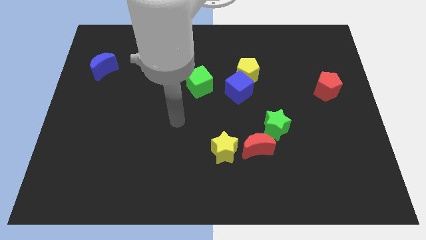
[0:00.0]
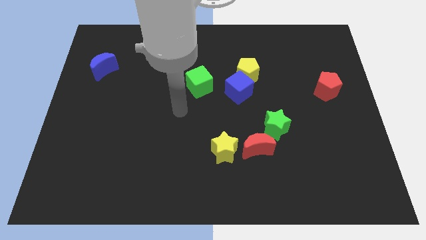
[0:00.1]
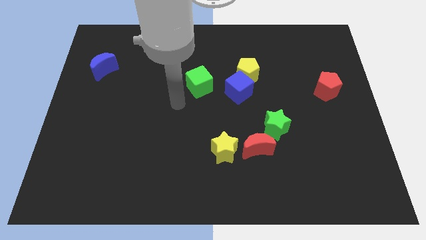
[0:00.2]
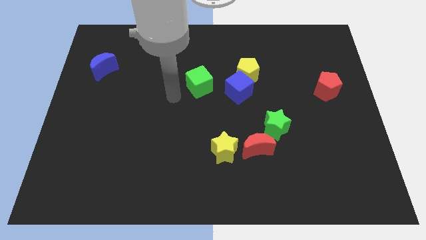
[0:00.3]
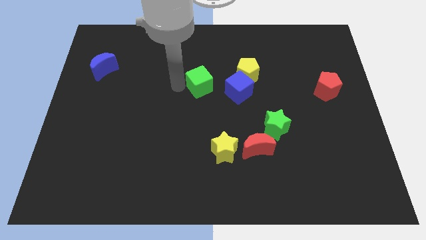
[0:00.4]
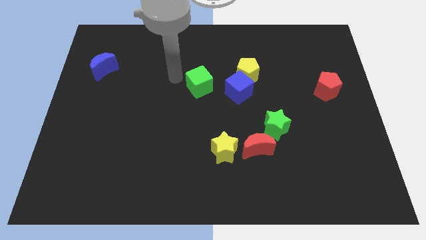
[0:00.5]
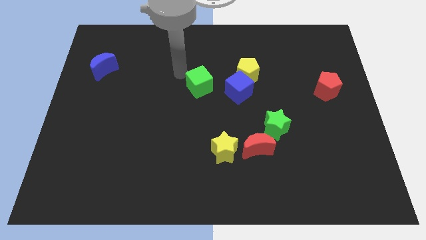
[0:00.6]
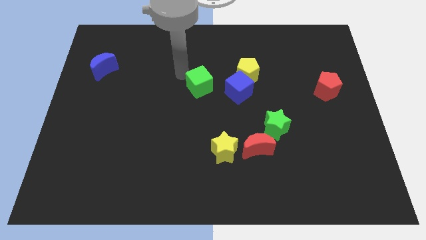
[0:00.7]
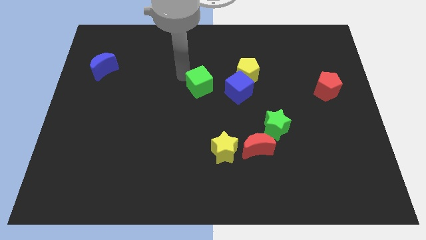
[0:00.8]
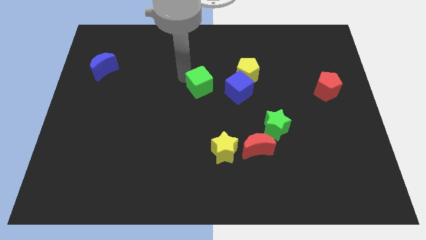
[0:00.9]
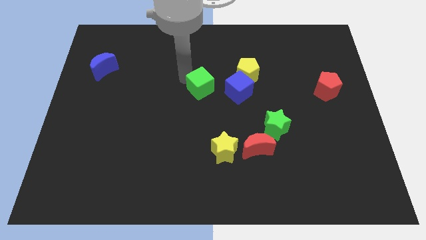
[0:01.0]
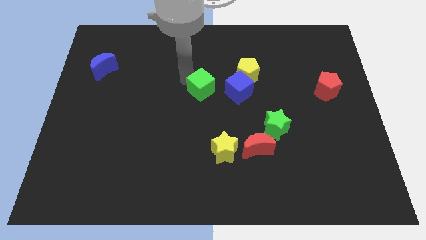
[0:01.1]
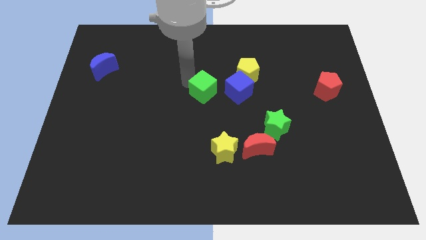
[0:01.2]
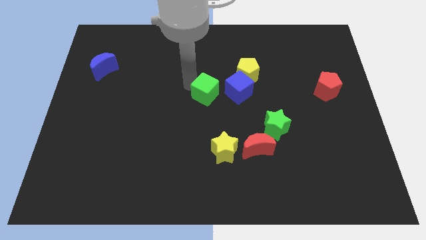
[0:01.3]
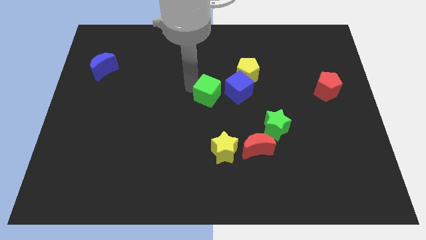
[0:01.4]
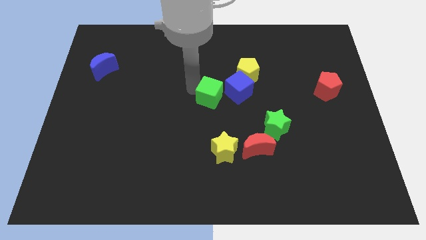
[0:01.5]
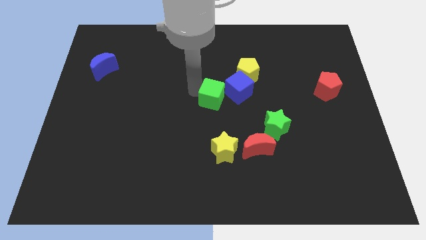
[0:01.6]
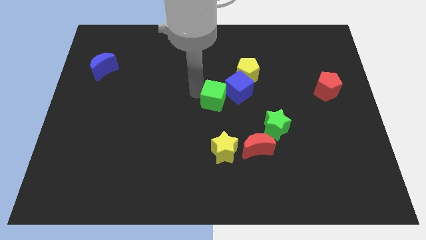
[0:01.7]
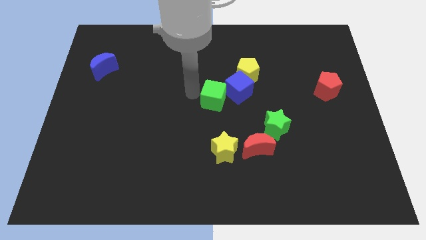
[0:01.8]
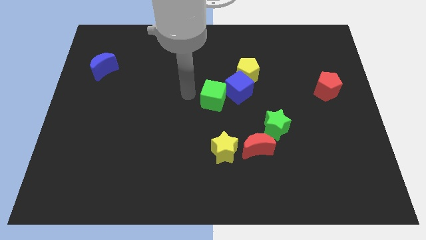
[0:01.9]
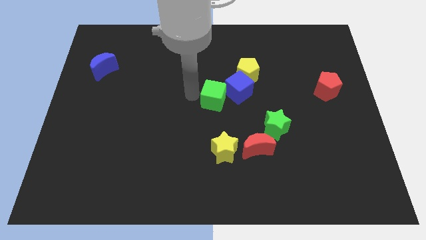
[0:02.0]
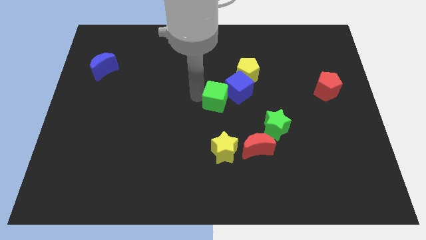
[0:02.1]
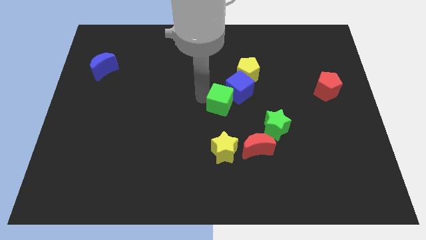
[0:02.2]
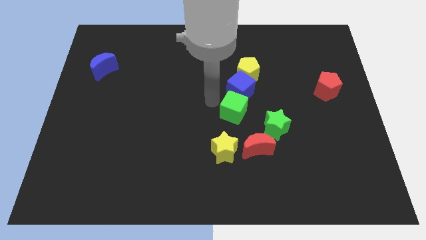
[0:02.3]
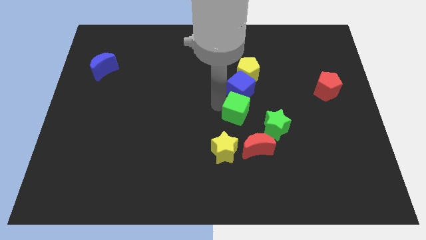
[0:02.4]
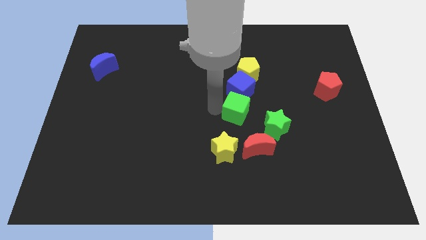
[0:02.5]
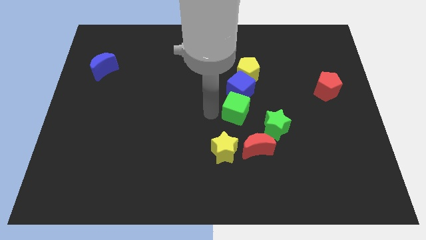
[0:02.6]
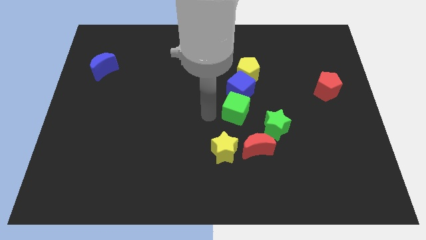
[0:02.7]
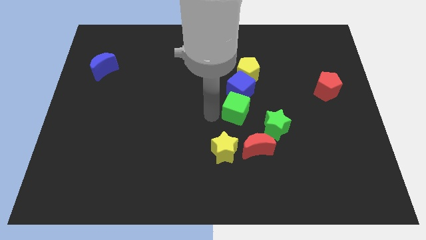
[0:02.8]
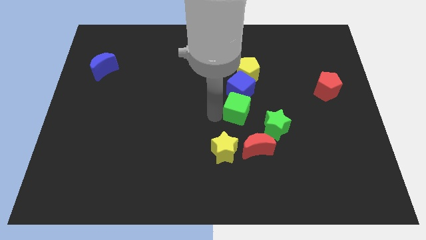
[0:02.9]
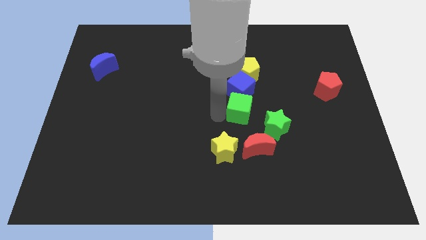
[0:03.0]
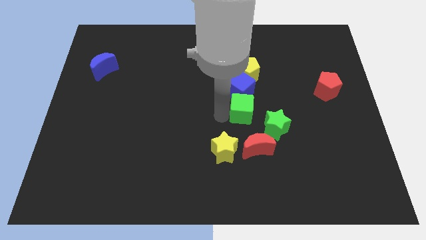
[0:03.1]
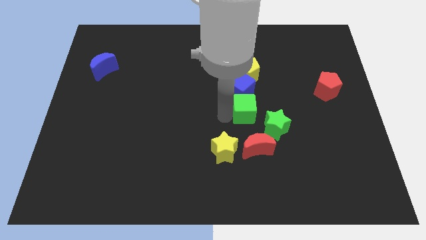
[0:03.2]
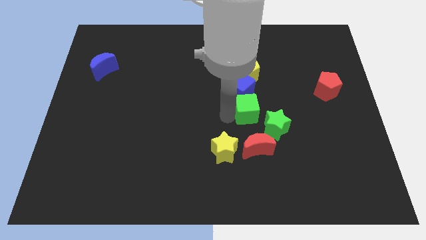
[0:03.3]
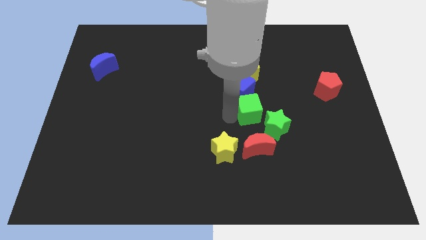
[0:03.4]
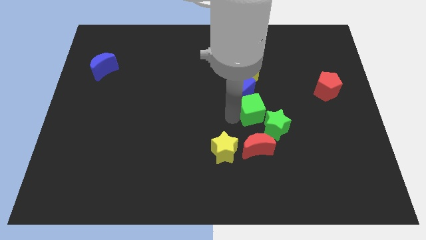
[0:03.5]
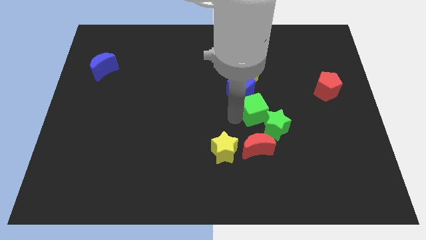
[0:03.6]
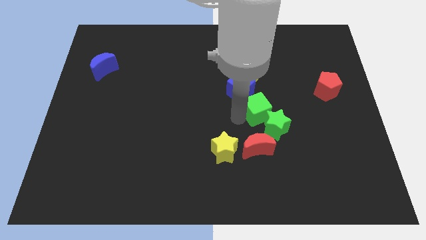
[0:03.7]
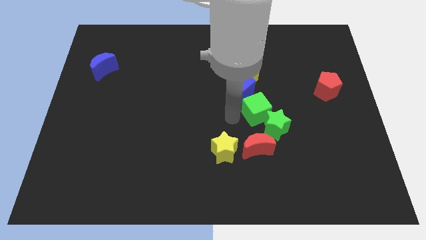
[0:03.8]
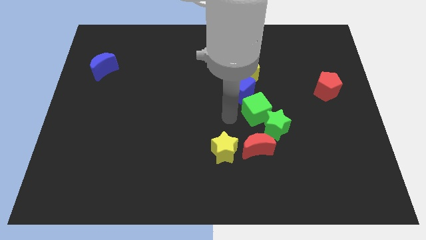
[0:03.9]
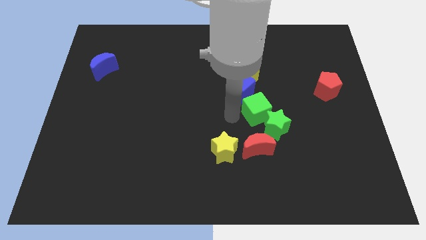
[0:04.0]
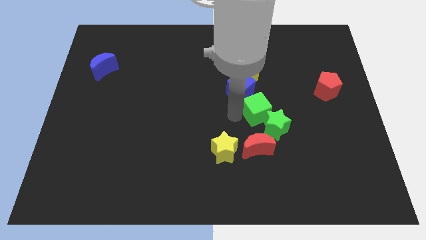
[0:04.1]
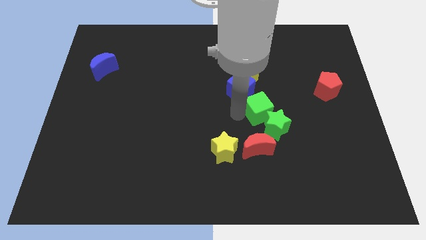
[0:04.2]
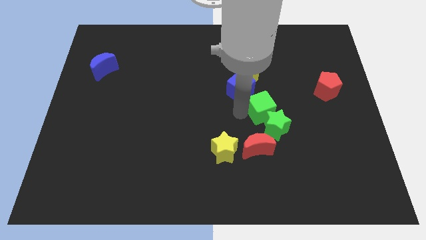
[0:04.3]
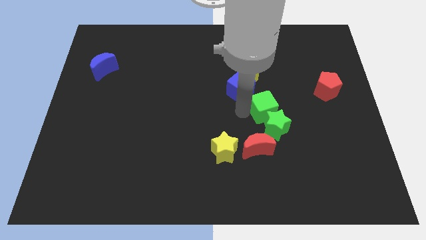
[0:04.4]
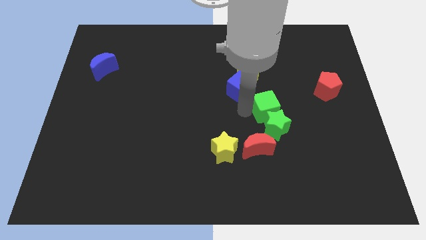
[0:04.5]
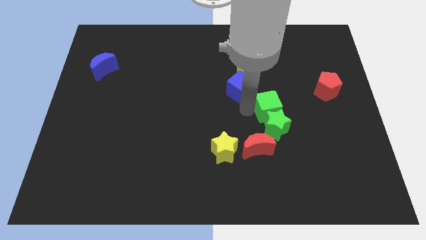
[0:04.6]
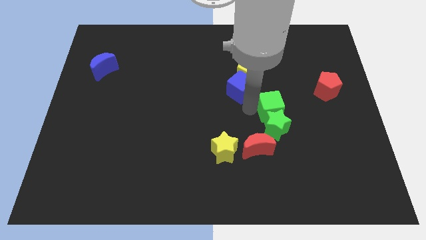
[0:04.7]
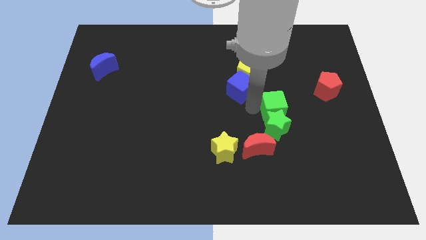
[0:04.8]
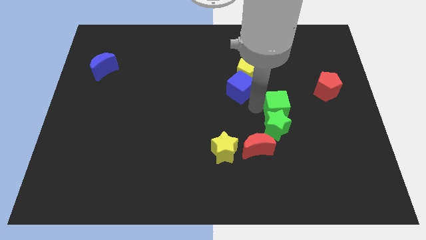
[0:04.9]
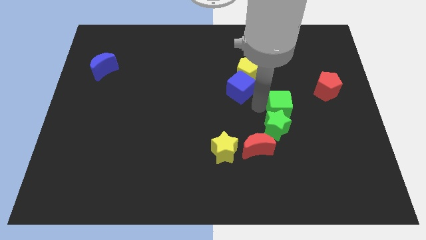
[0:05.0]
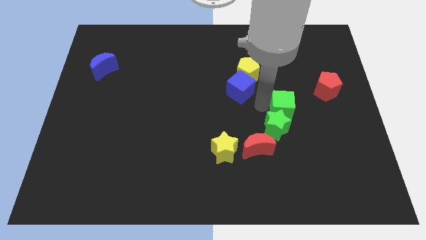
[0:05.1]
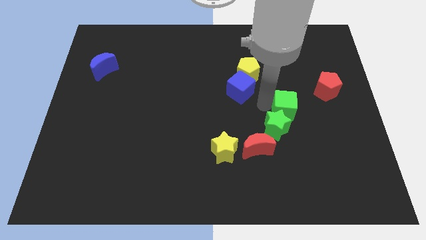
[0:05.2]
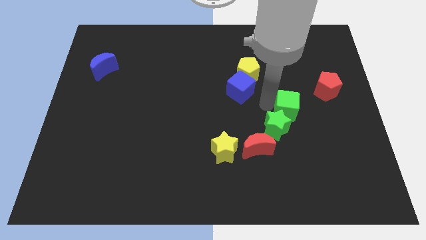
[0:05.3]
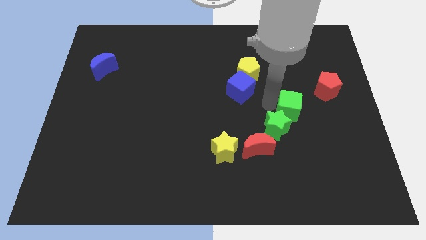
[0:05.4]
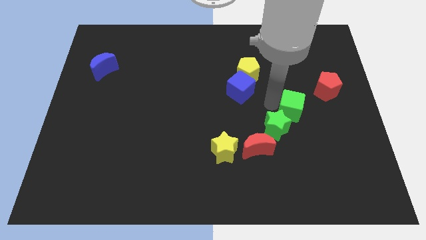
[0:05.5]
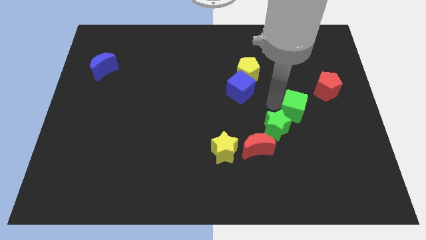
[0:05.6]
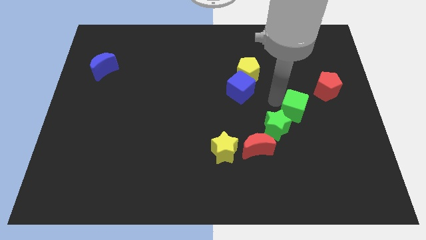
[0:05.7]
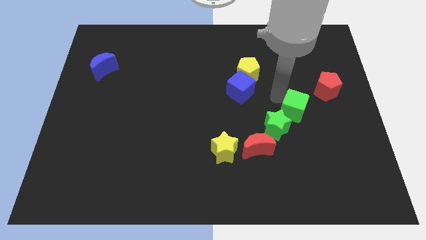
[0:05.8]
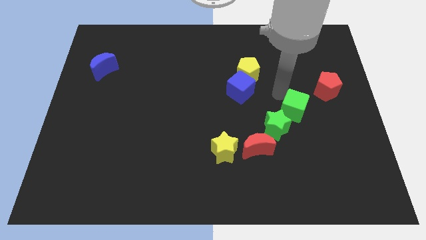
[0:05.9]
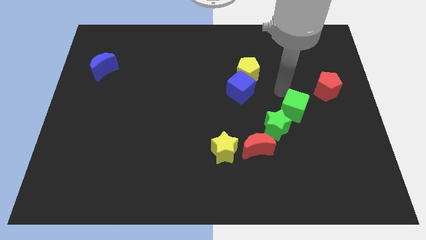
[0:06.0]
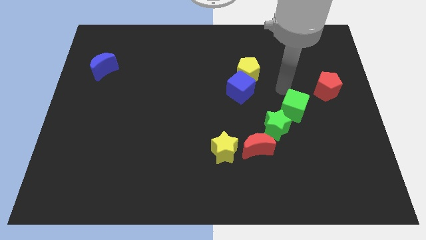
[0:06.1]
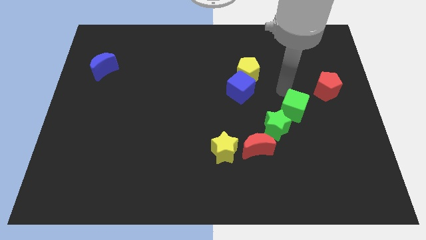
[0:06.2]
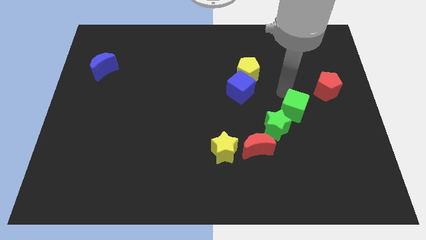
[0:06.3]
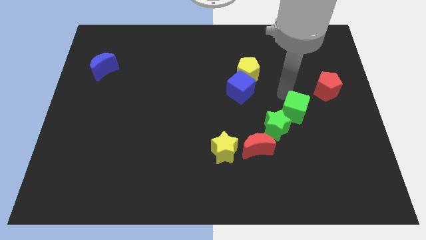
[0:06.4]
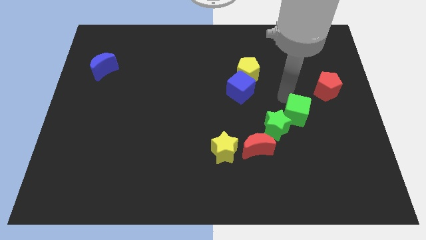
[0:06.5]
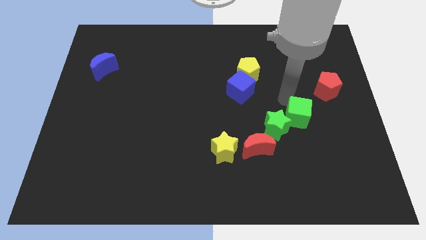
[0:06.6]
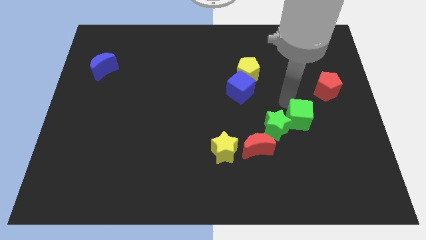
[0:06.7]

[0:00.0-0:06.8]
push the green cube diagonally downwards and right

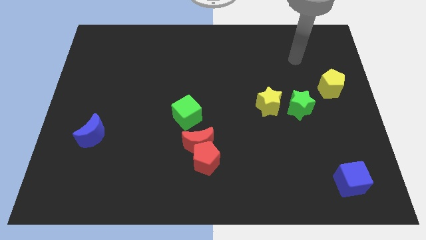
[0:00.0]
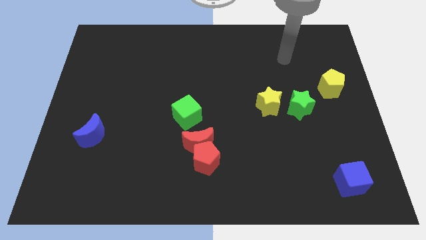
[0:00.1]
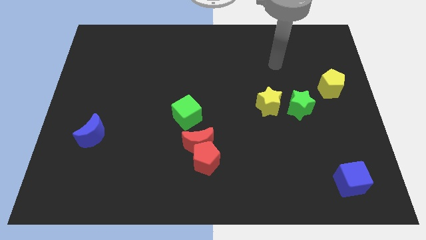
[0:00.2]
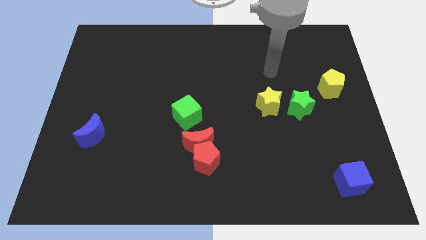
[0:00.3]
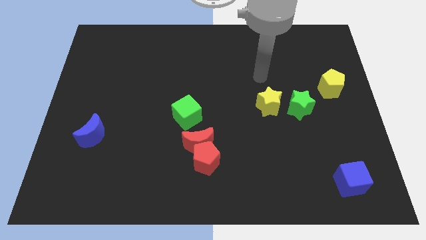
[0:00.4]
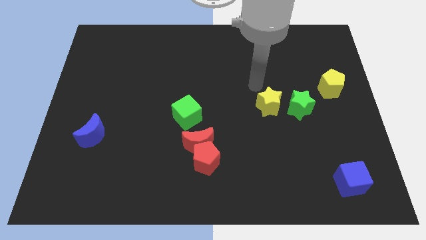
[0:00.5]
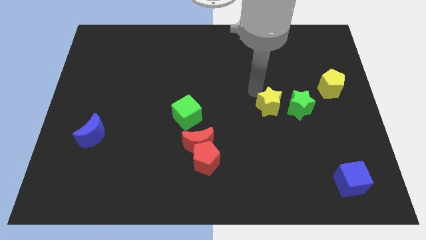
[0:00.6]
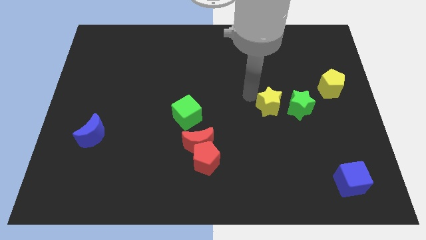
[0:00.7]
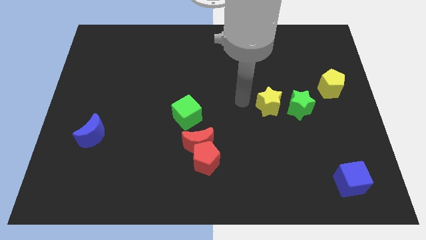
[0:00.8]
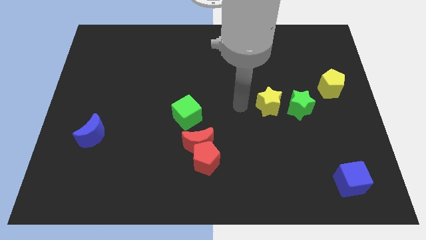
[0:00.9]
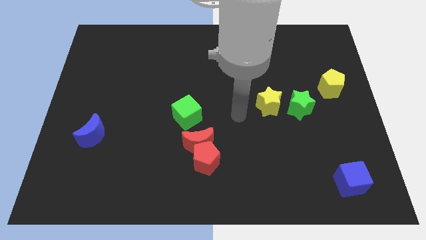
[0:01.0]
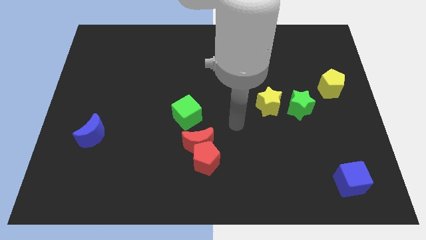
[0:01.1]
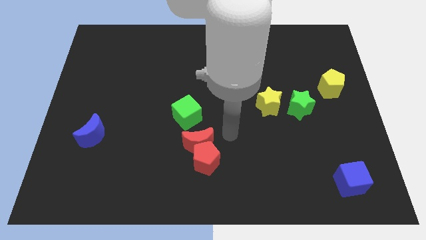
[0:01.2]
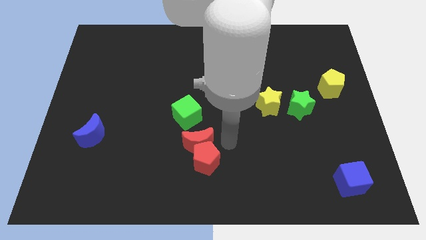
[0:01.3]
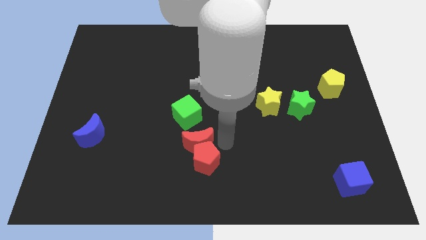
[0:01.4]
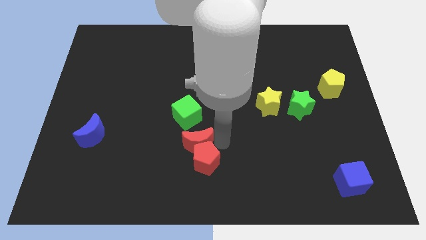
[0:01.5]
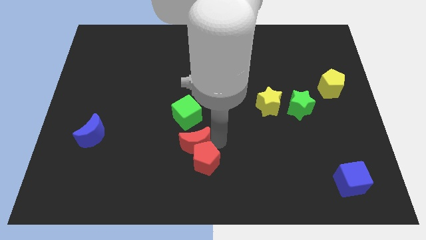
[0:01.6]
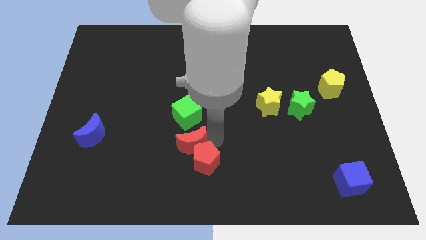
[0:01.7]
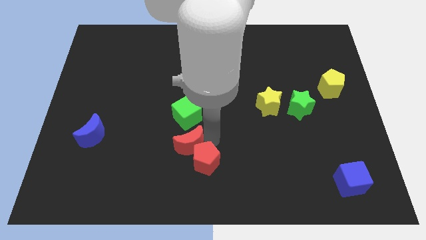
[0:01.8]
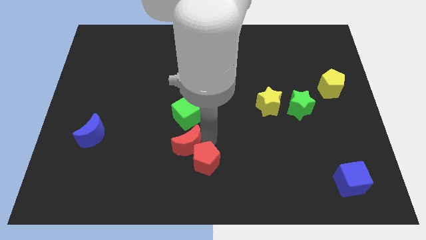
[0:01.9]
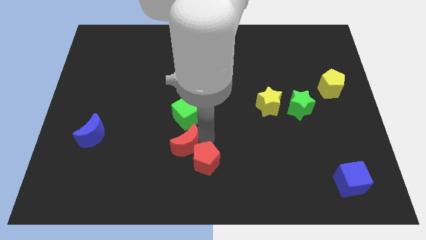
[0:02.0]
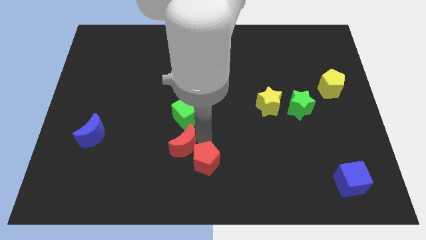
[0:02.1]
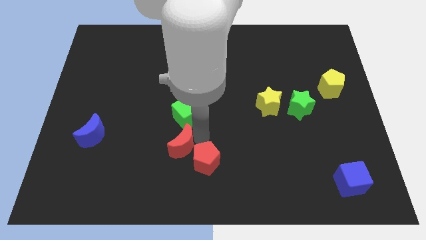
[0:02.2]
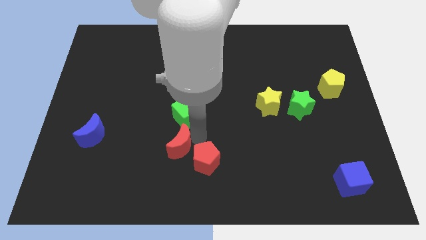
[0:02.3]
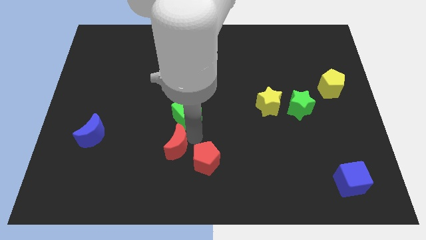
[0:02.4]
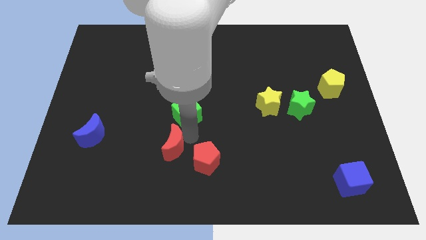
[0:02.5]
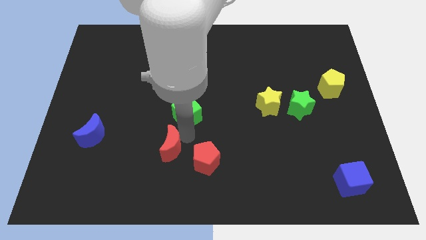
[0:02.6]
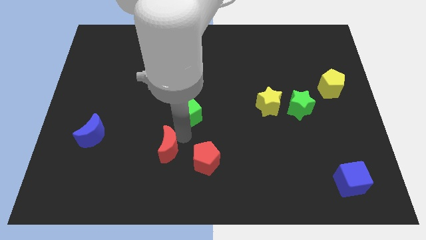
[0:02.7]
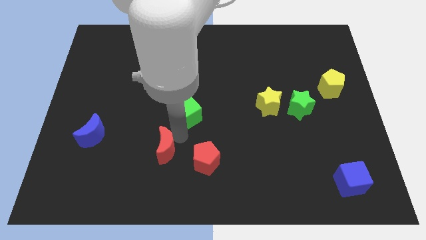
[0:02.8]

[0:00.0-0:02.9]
push the red moon left a bit
